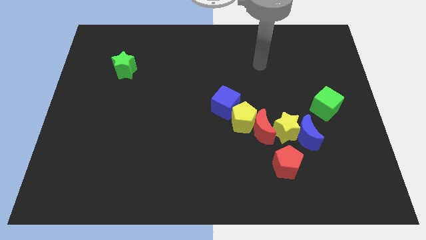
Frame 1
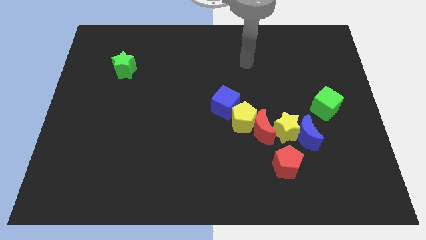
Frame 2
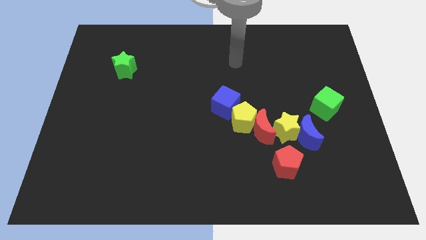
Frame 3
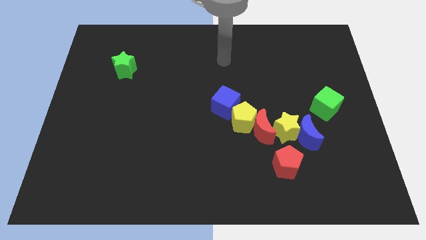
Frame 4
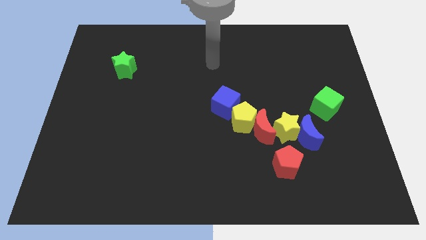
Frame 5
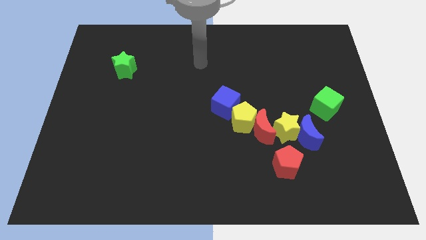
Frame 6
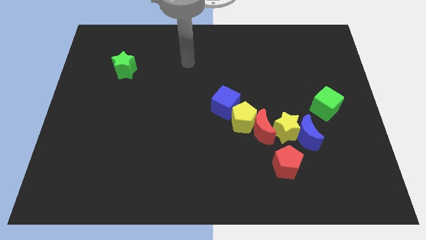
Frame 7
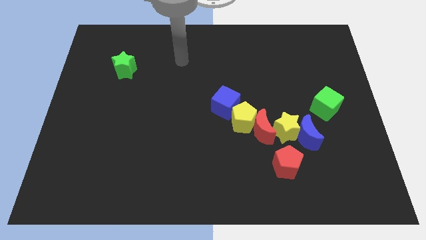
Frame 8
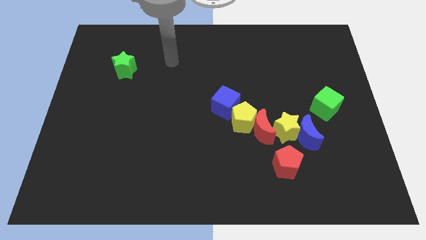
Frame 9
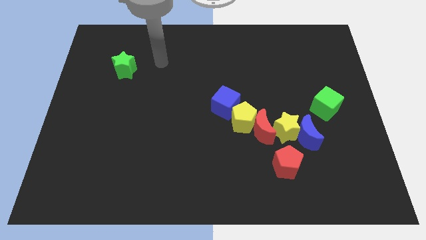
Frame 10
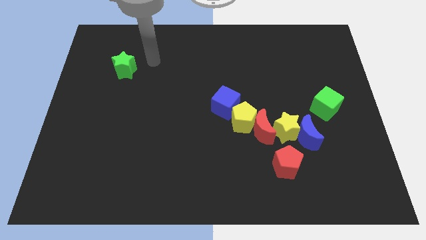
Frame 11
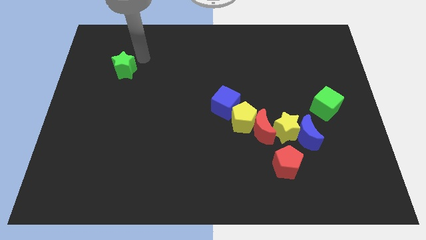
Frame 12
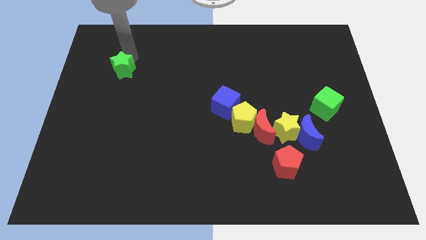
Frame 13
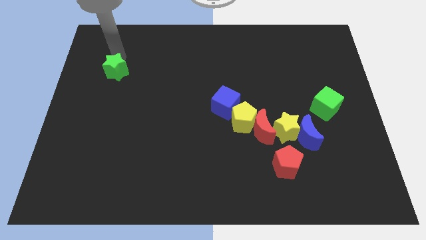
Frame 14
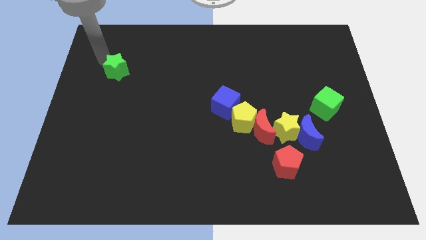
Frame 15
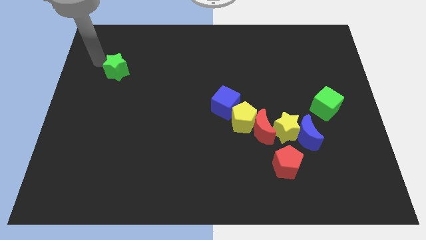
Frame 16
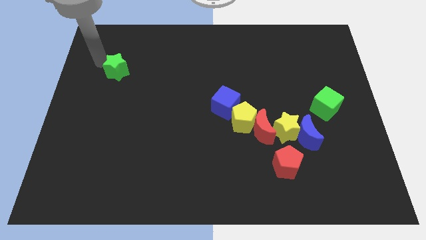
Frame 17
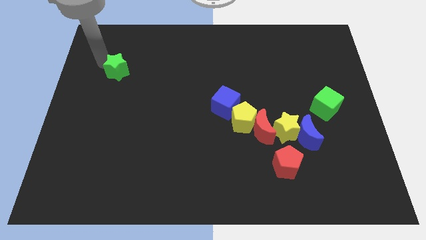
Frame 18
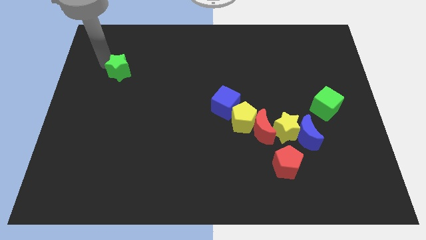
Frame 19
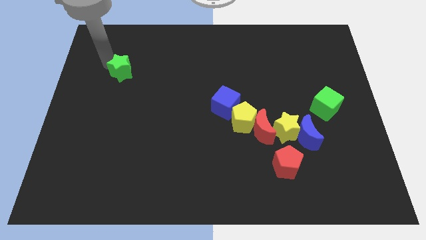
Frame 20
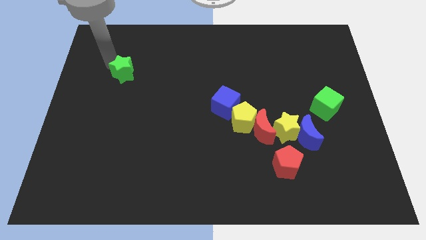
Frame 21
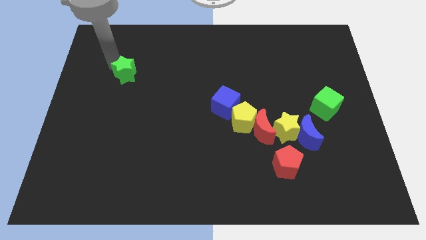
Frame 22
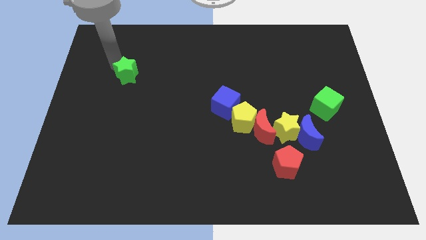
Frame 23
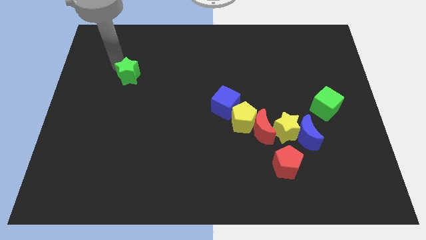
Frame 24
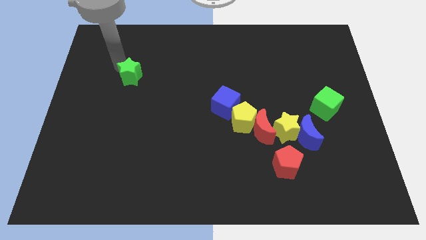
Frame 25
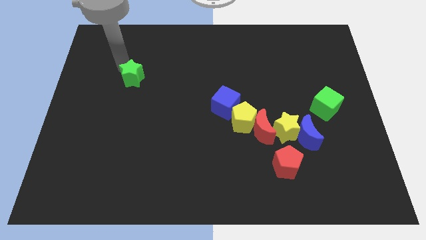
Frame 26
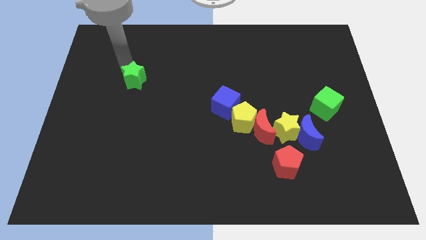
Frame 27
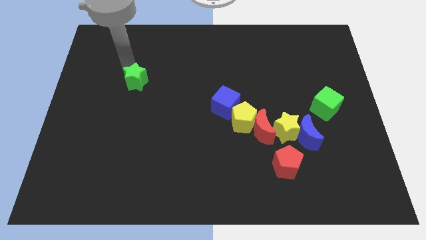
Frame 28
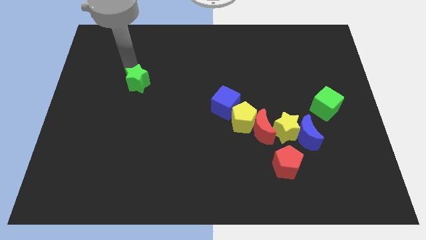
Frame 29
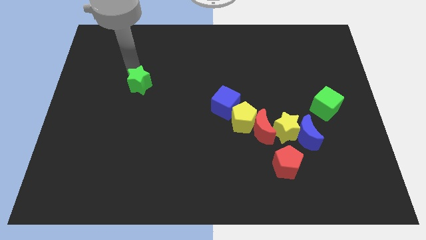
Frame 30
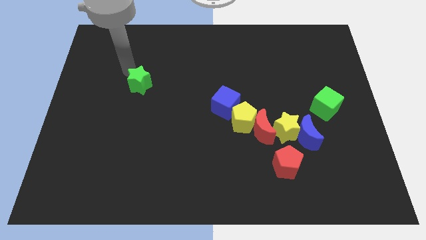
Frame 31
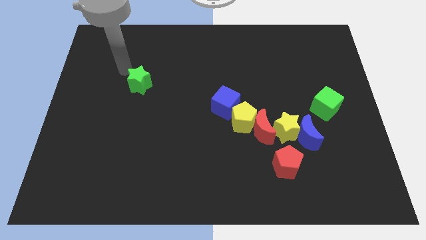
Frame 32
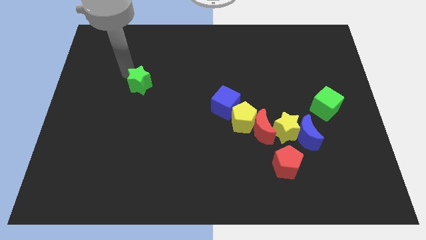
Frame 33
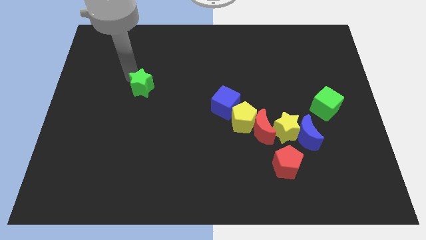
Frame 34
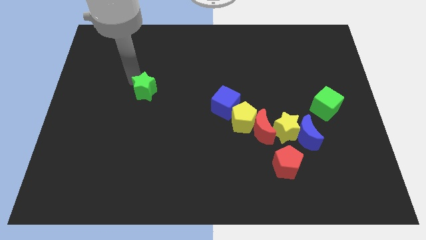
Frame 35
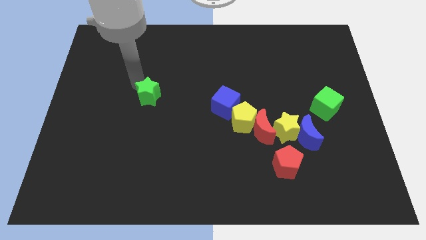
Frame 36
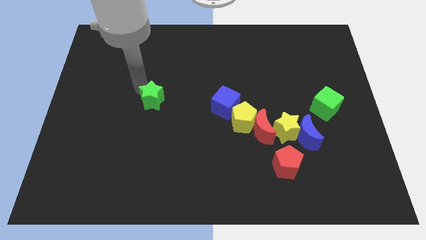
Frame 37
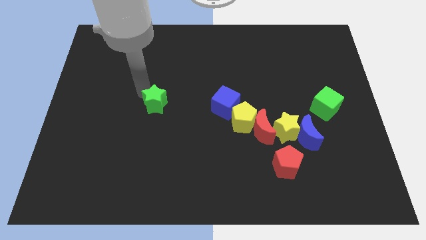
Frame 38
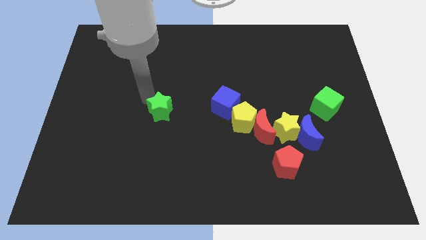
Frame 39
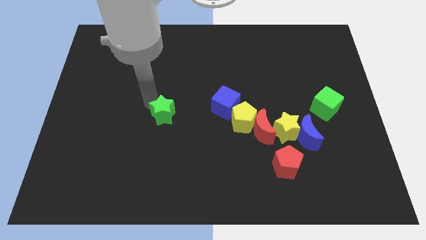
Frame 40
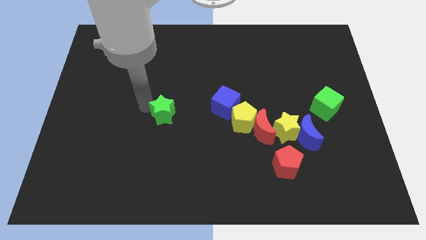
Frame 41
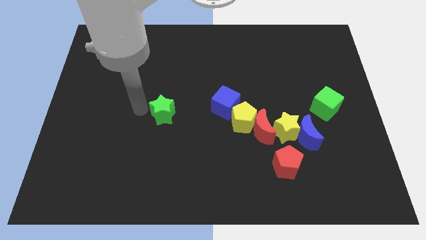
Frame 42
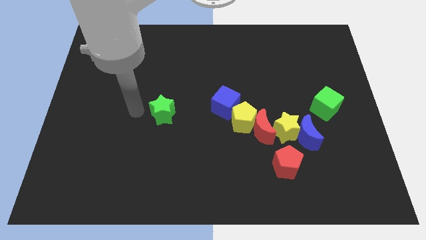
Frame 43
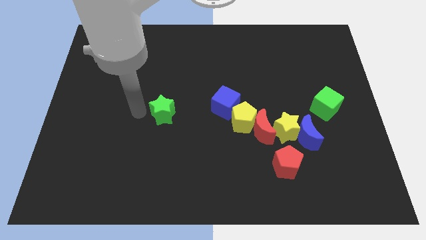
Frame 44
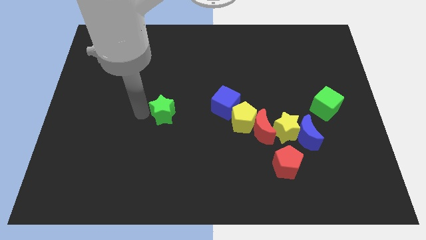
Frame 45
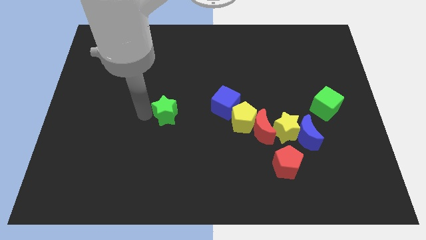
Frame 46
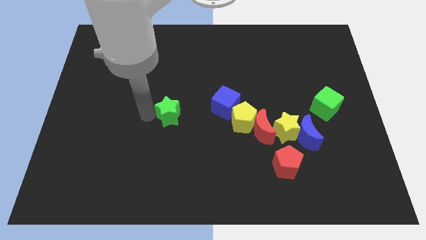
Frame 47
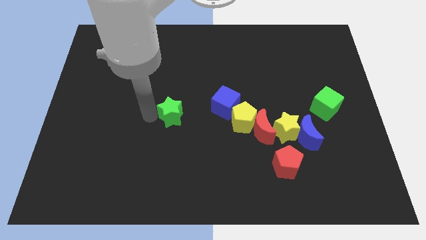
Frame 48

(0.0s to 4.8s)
push the green star down and right

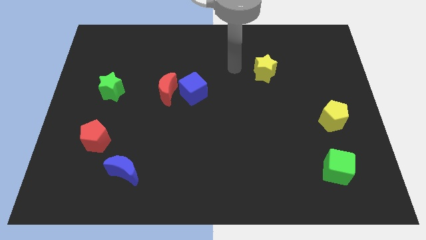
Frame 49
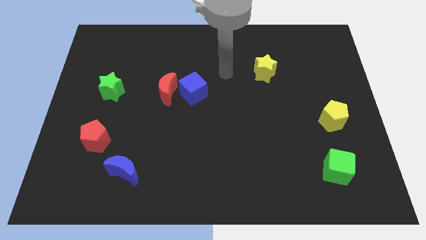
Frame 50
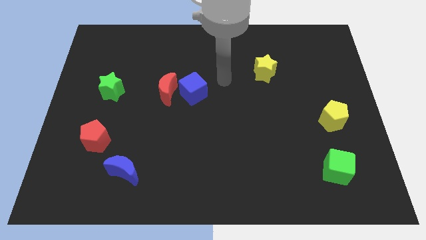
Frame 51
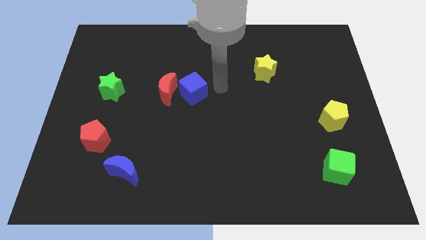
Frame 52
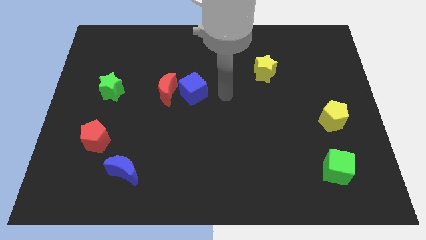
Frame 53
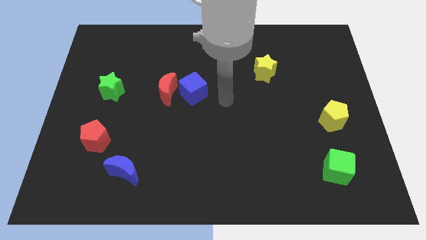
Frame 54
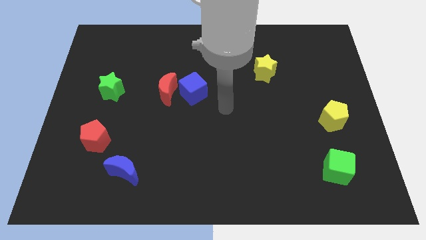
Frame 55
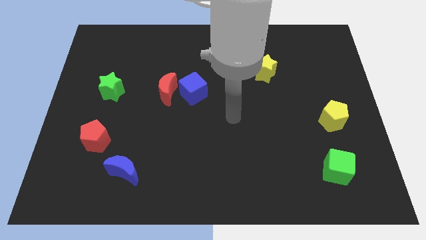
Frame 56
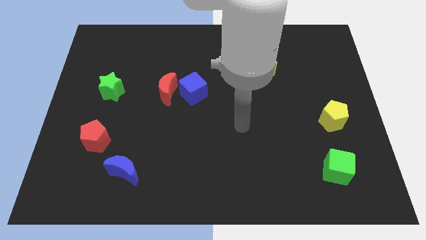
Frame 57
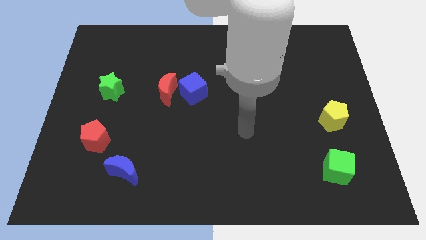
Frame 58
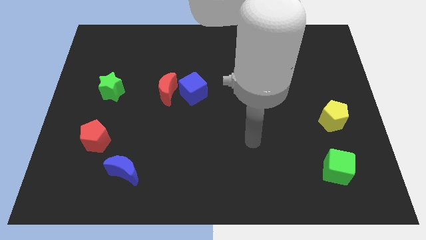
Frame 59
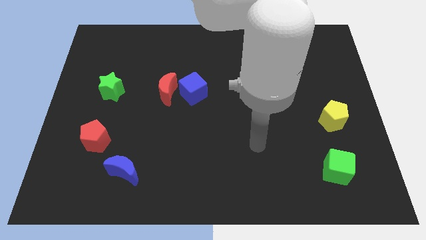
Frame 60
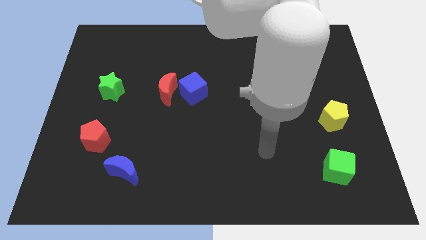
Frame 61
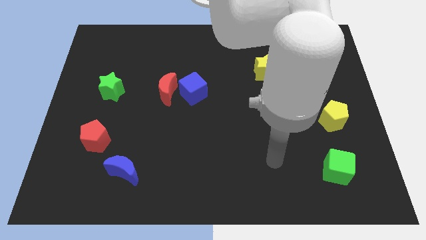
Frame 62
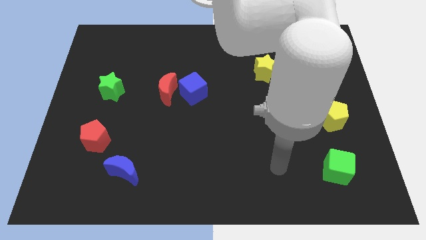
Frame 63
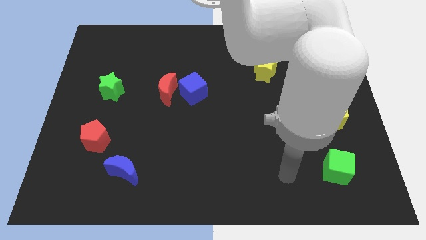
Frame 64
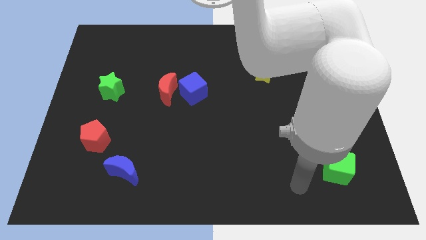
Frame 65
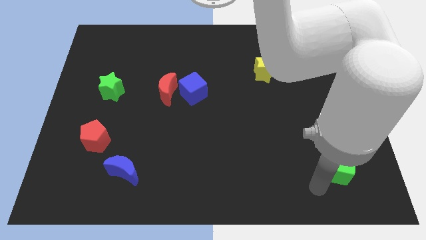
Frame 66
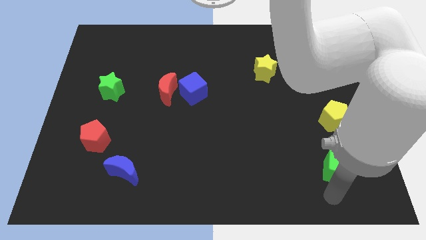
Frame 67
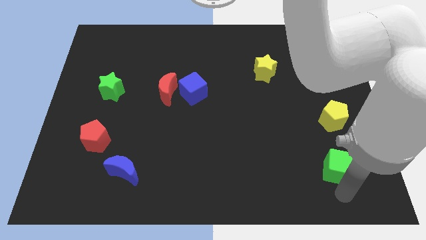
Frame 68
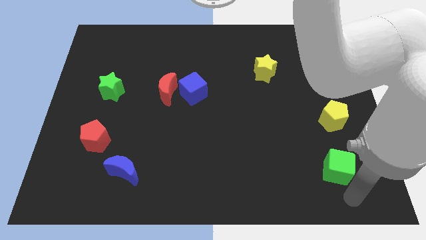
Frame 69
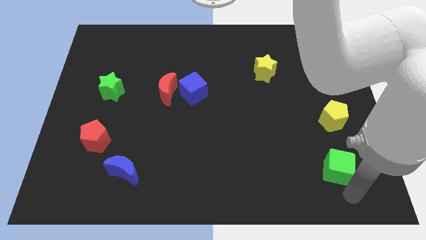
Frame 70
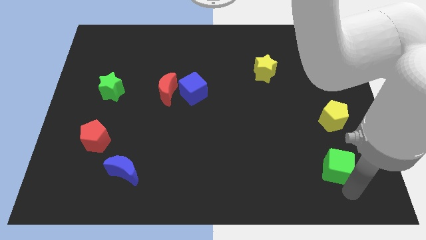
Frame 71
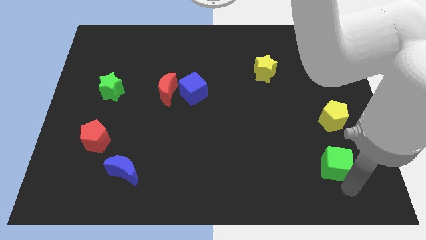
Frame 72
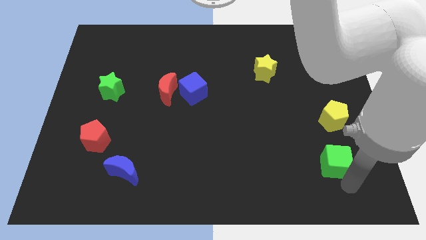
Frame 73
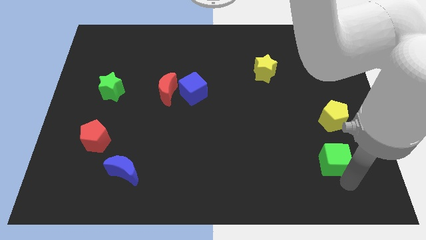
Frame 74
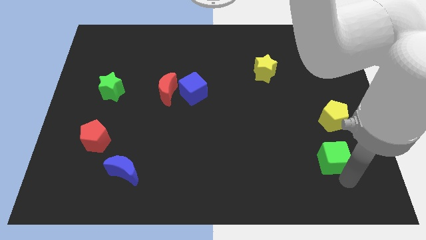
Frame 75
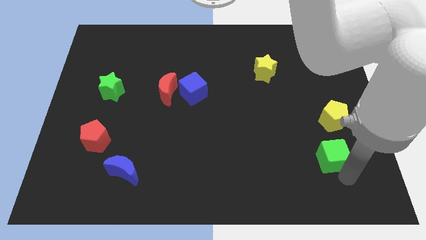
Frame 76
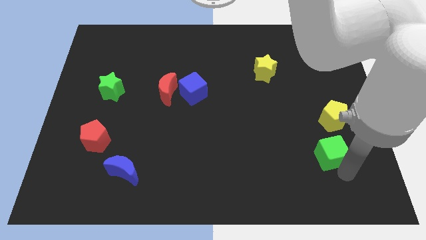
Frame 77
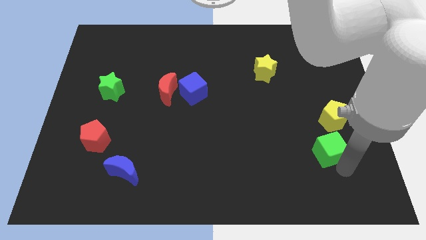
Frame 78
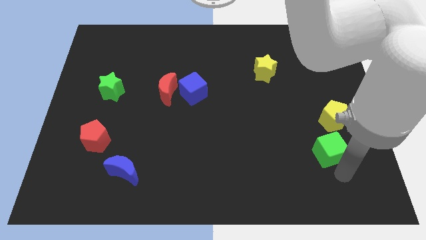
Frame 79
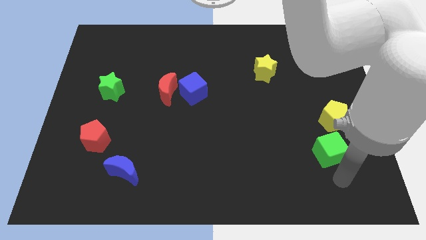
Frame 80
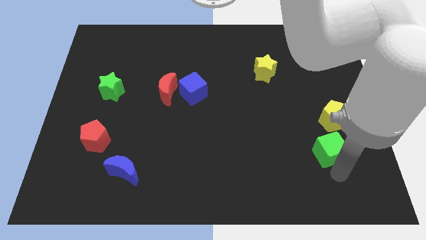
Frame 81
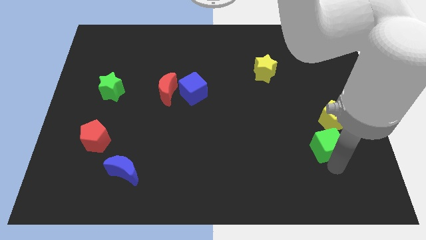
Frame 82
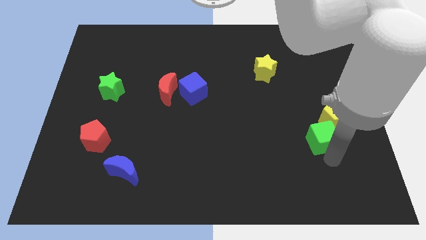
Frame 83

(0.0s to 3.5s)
slide the green cube a little bit up
